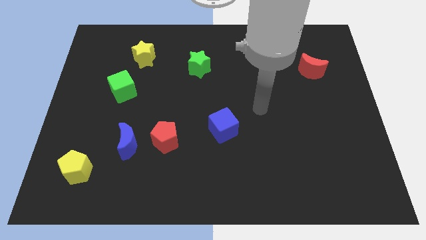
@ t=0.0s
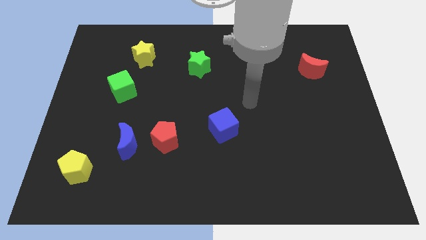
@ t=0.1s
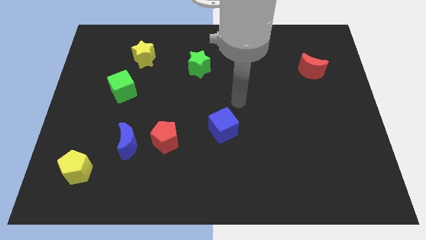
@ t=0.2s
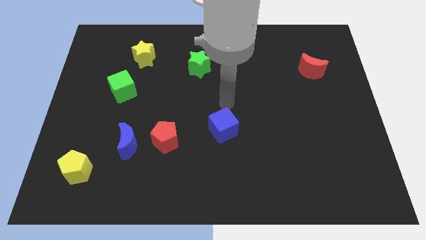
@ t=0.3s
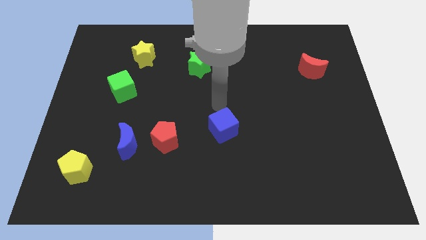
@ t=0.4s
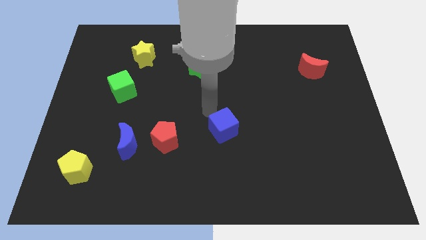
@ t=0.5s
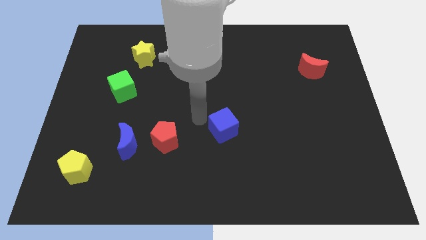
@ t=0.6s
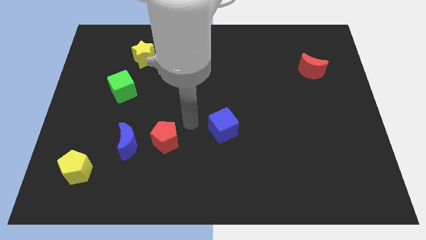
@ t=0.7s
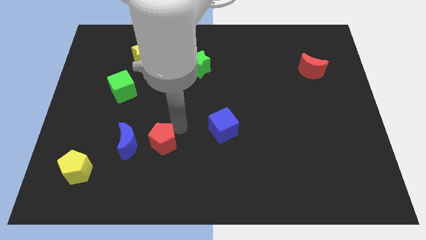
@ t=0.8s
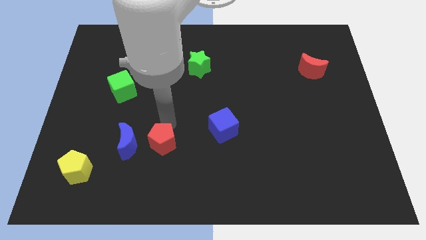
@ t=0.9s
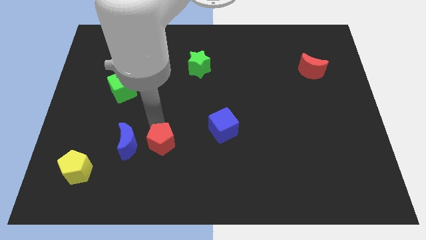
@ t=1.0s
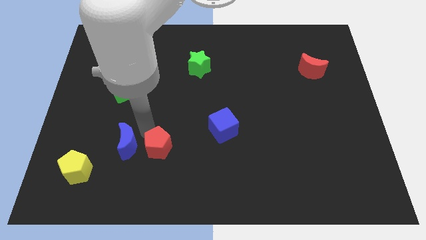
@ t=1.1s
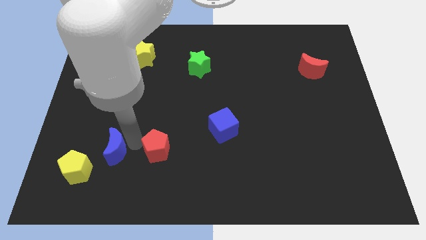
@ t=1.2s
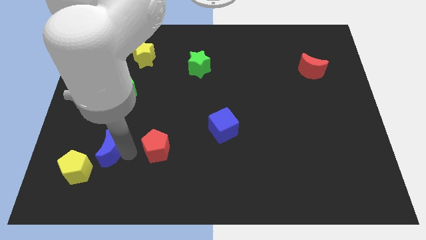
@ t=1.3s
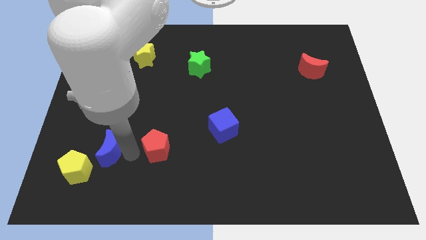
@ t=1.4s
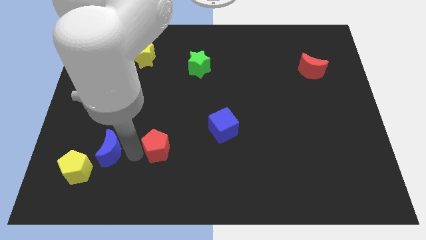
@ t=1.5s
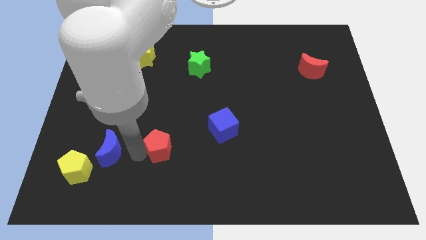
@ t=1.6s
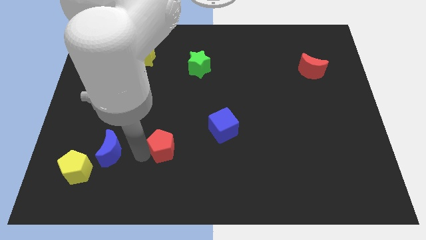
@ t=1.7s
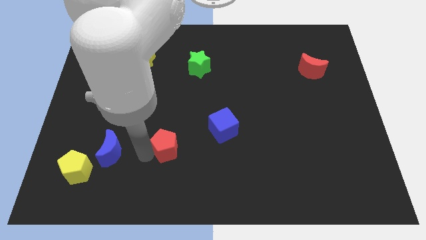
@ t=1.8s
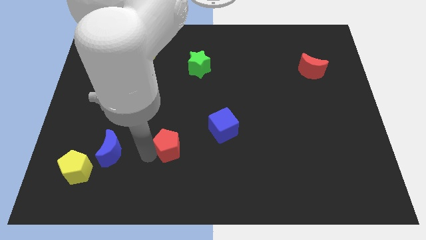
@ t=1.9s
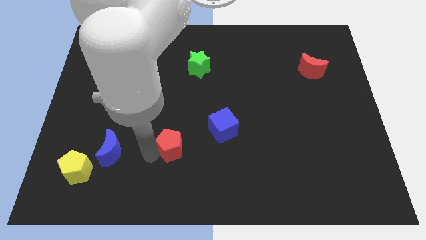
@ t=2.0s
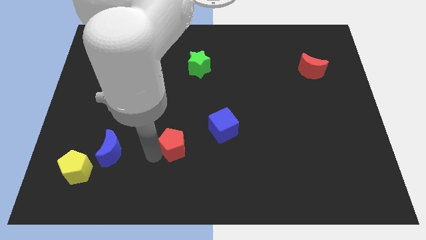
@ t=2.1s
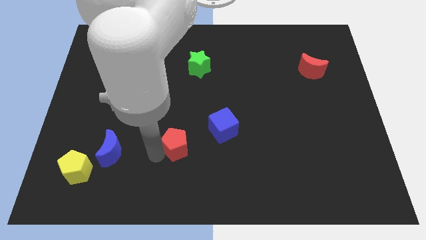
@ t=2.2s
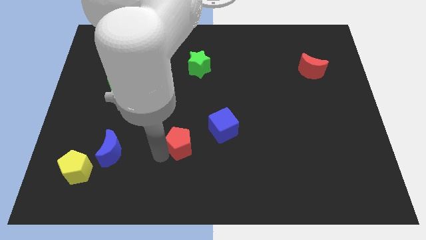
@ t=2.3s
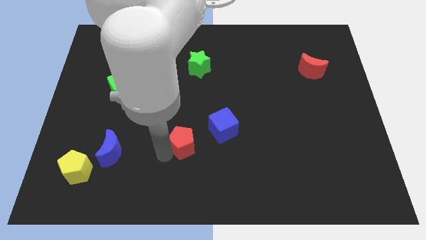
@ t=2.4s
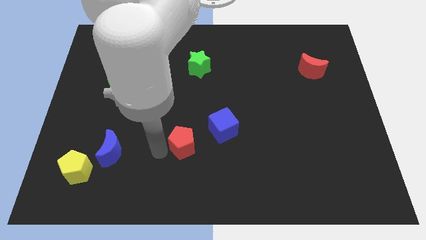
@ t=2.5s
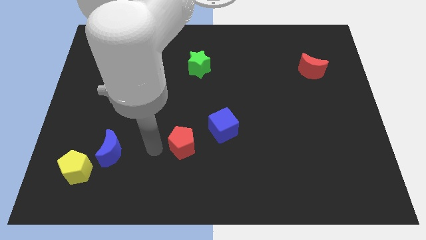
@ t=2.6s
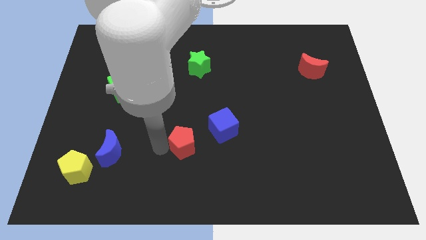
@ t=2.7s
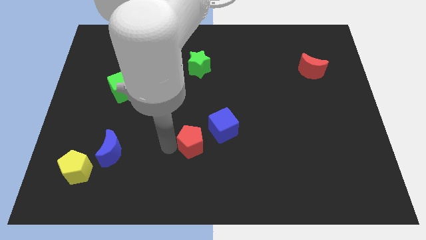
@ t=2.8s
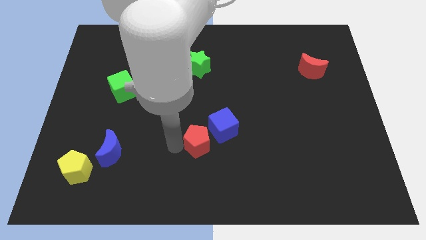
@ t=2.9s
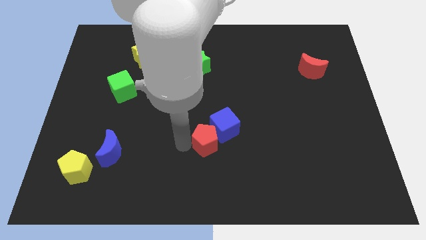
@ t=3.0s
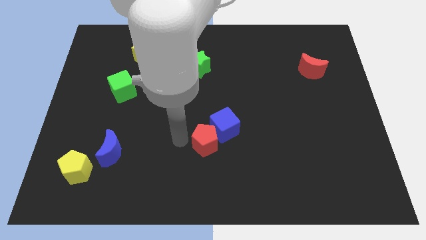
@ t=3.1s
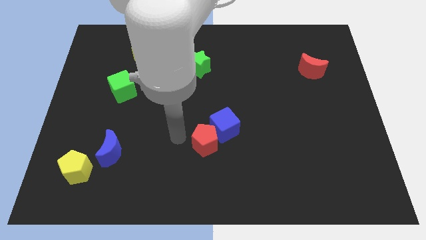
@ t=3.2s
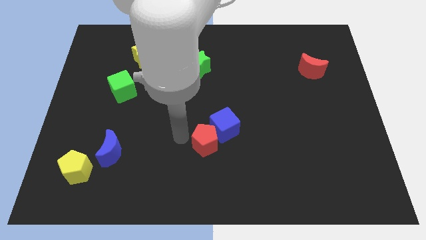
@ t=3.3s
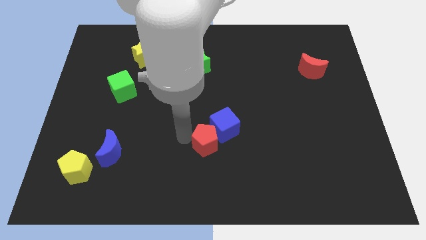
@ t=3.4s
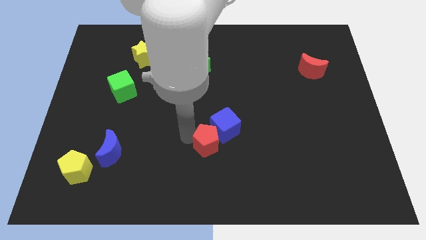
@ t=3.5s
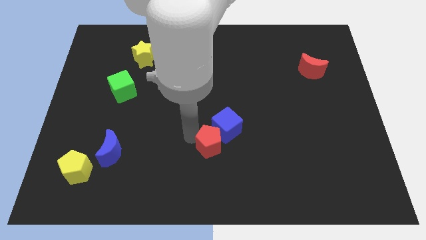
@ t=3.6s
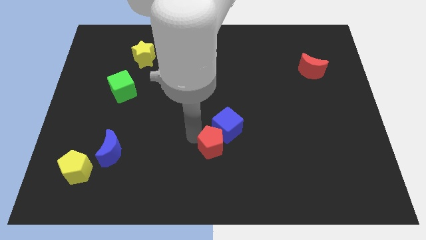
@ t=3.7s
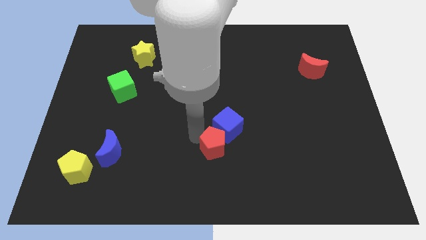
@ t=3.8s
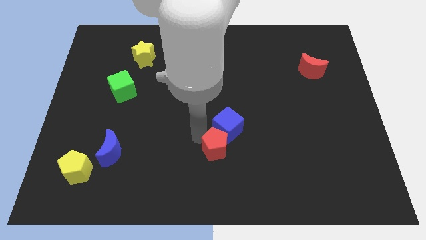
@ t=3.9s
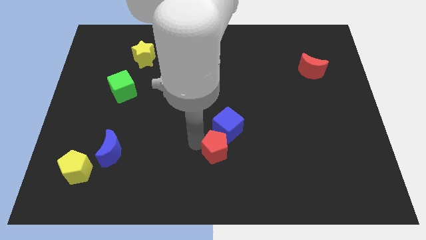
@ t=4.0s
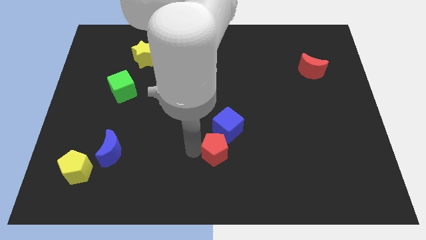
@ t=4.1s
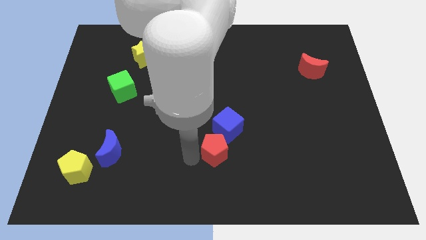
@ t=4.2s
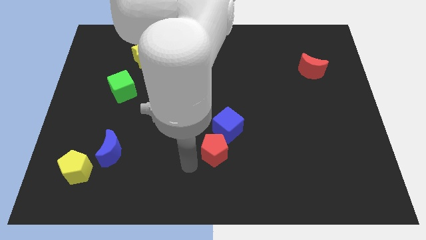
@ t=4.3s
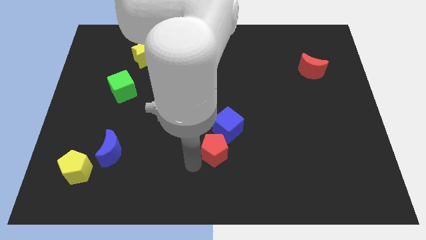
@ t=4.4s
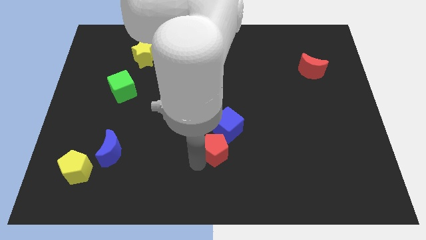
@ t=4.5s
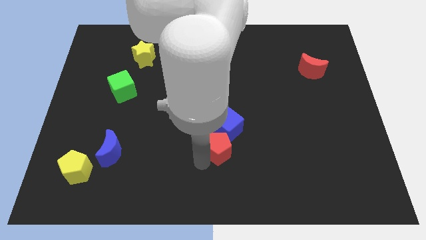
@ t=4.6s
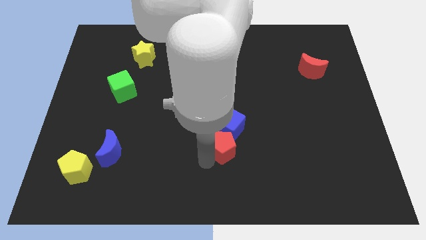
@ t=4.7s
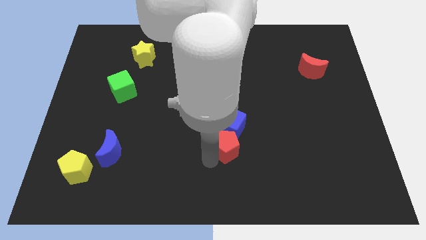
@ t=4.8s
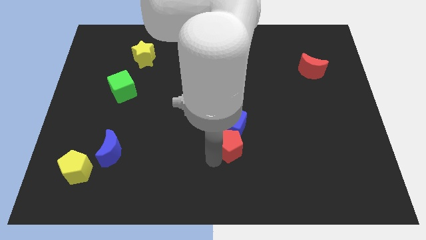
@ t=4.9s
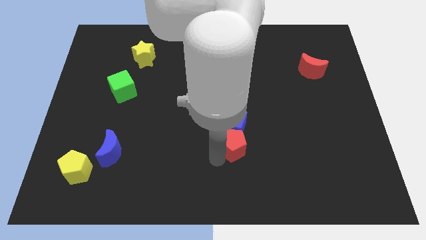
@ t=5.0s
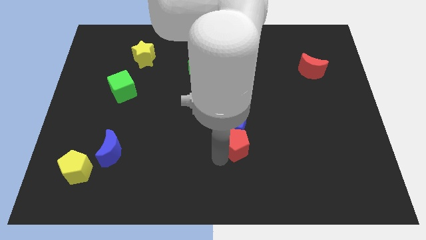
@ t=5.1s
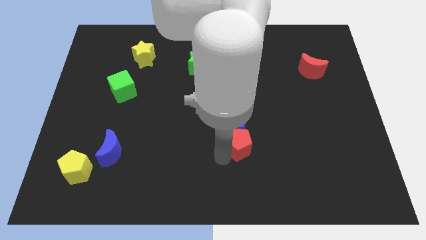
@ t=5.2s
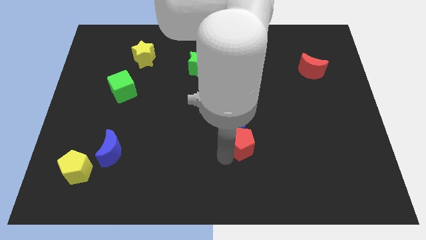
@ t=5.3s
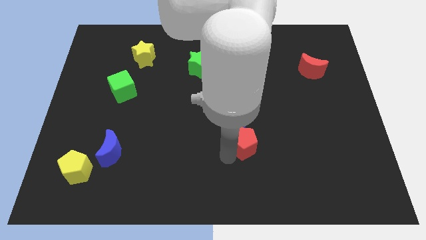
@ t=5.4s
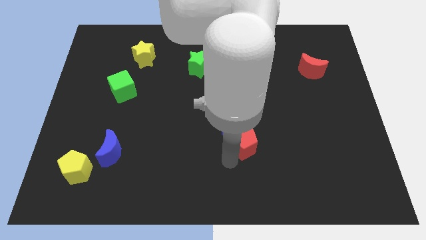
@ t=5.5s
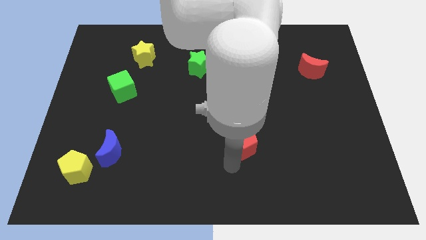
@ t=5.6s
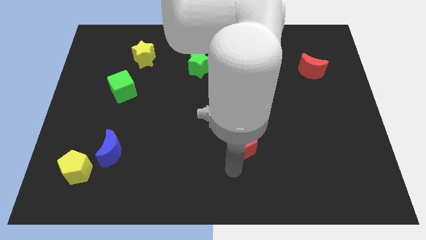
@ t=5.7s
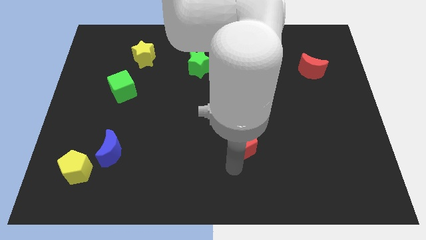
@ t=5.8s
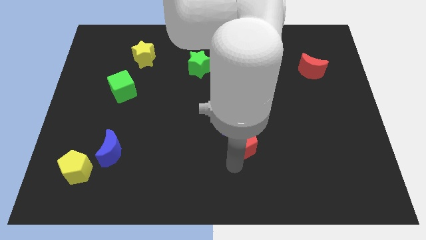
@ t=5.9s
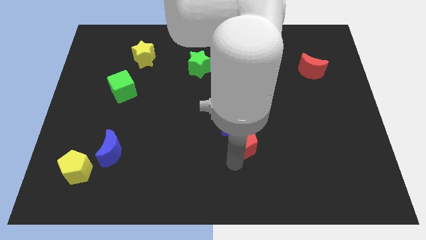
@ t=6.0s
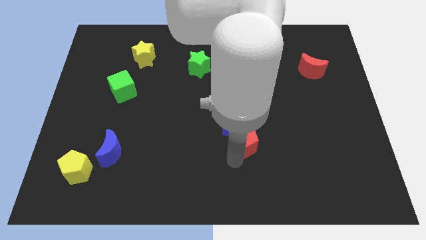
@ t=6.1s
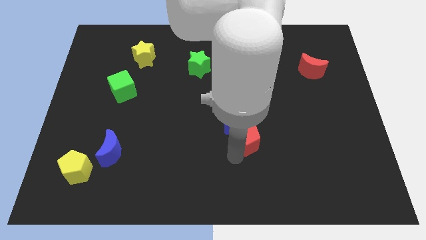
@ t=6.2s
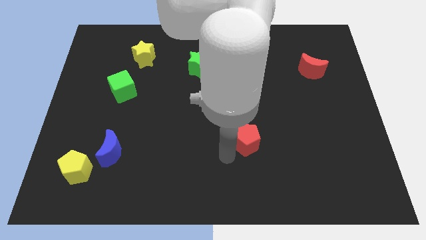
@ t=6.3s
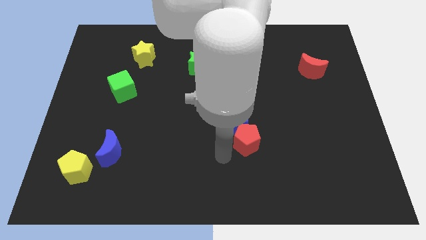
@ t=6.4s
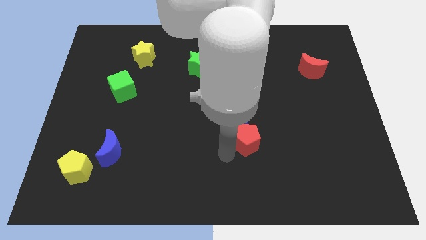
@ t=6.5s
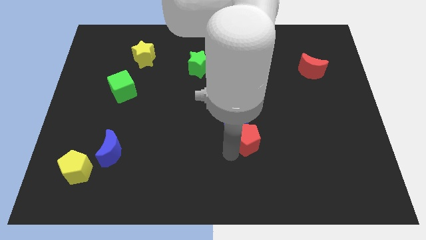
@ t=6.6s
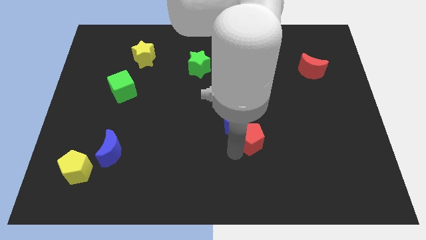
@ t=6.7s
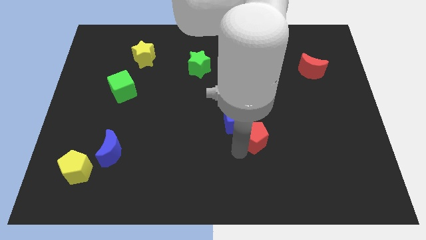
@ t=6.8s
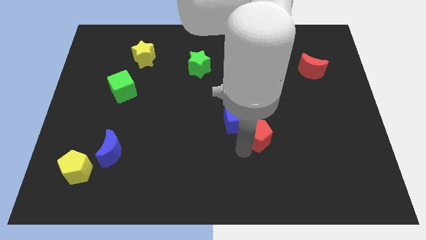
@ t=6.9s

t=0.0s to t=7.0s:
slide the red pentagon to the right side of the blue cube

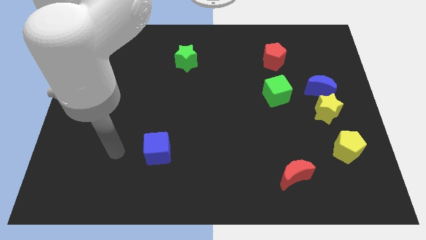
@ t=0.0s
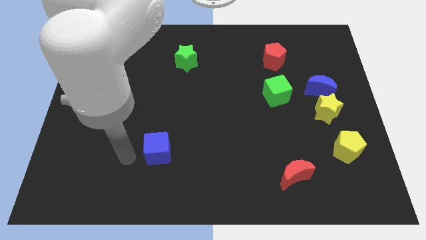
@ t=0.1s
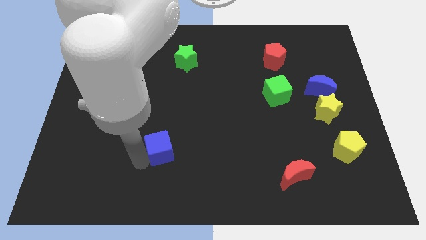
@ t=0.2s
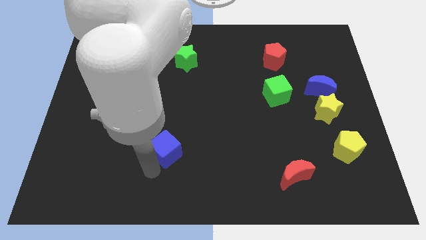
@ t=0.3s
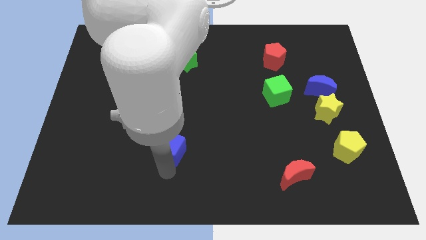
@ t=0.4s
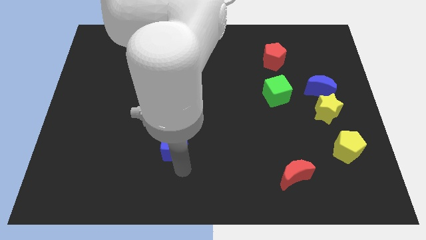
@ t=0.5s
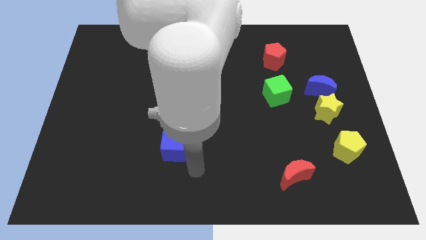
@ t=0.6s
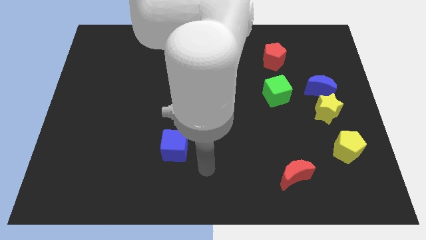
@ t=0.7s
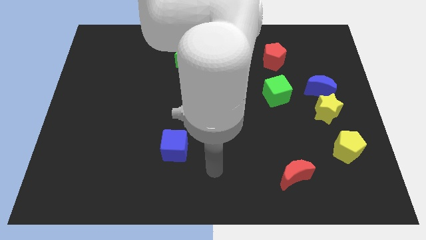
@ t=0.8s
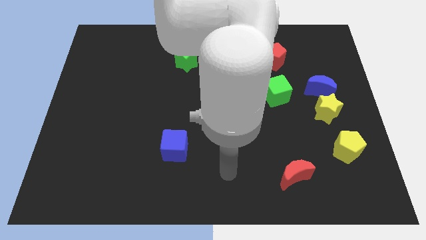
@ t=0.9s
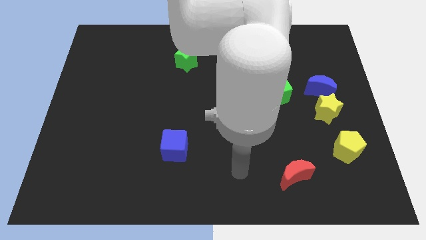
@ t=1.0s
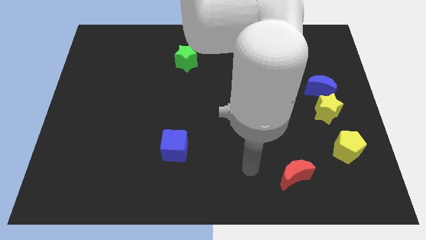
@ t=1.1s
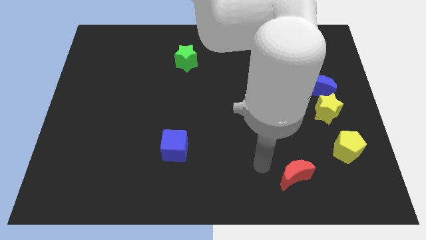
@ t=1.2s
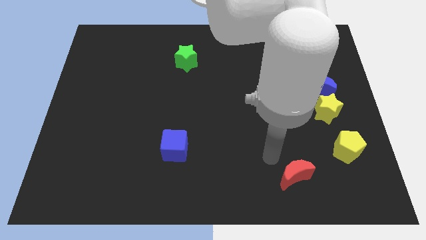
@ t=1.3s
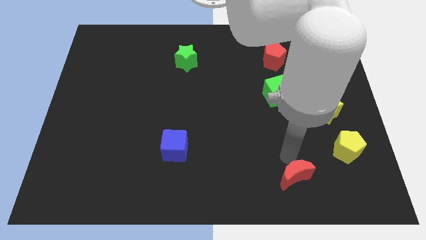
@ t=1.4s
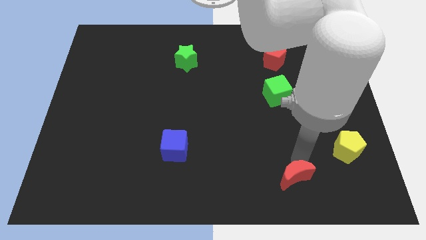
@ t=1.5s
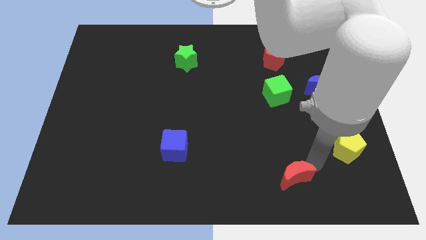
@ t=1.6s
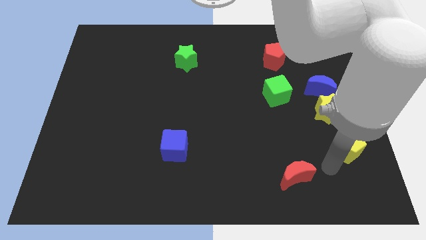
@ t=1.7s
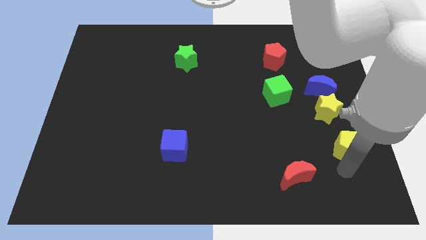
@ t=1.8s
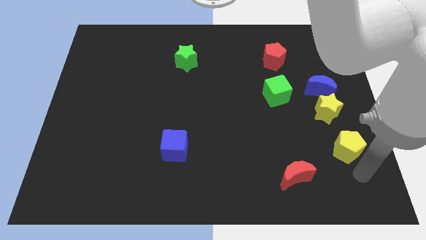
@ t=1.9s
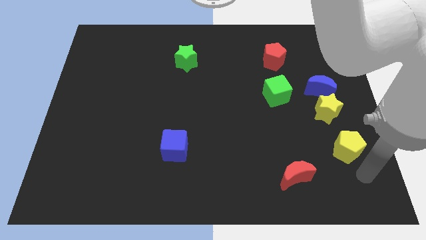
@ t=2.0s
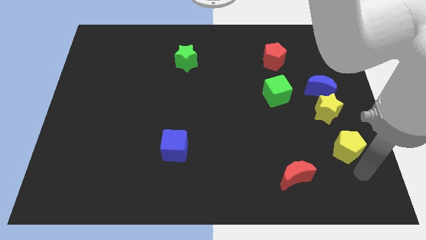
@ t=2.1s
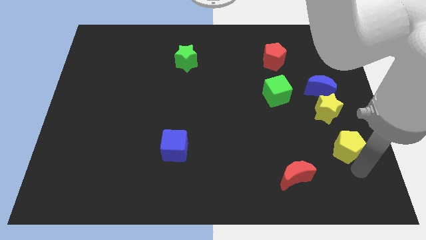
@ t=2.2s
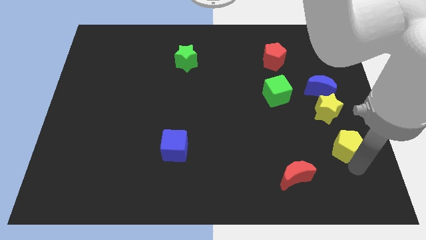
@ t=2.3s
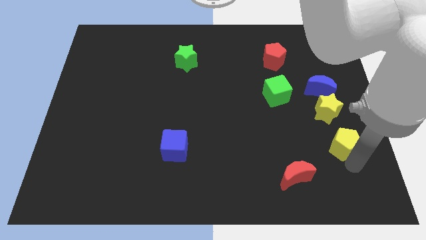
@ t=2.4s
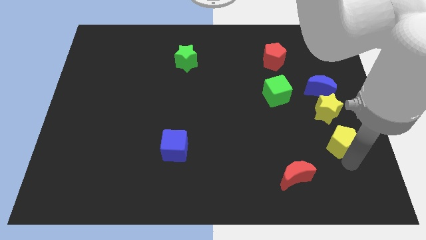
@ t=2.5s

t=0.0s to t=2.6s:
move the yellow pentagon below the blue moon
